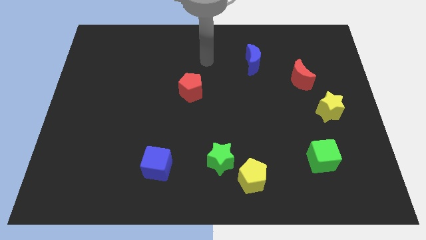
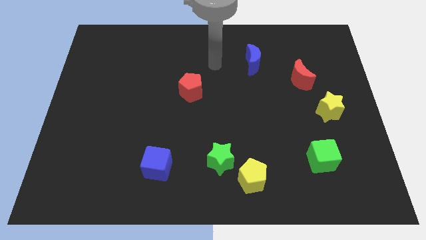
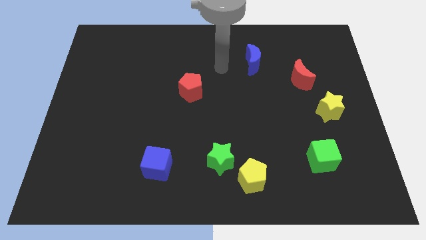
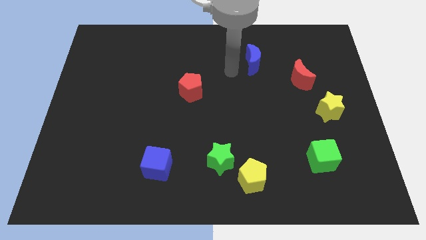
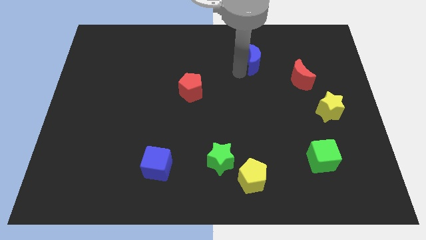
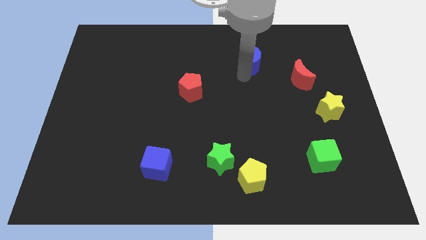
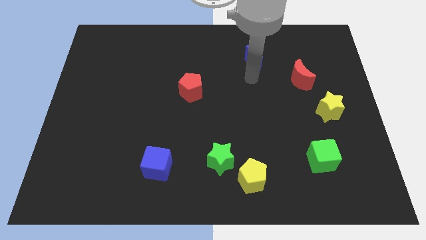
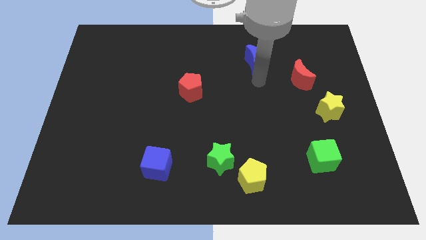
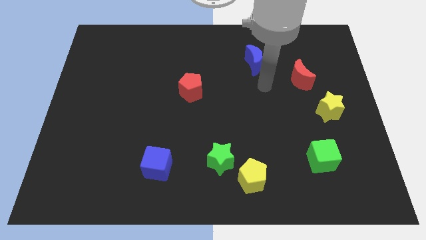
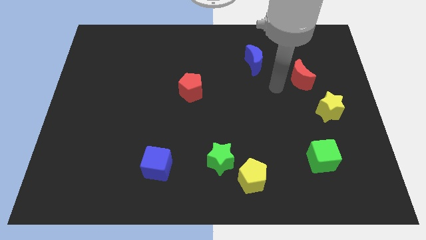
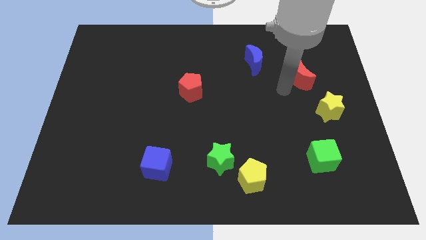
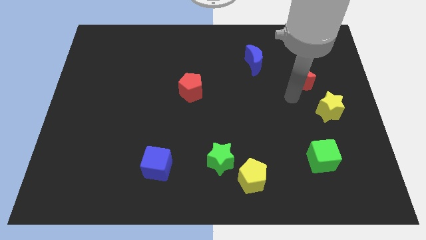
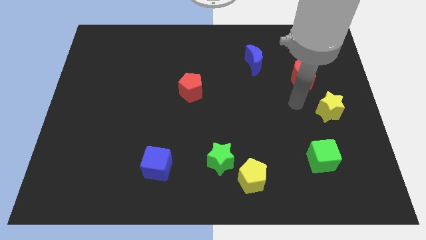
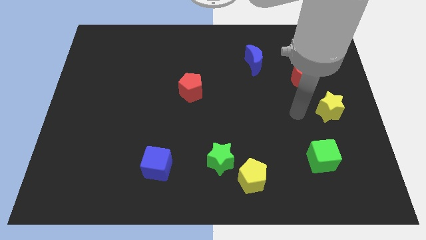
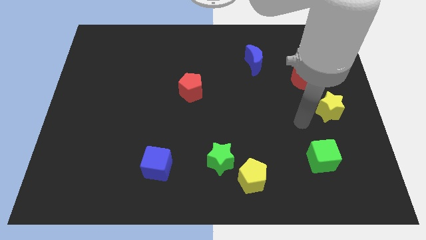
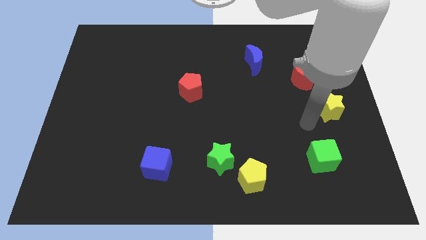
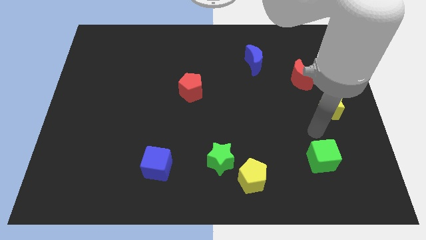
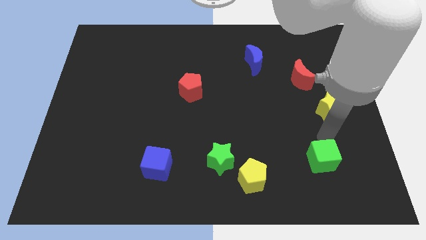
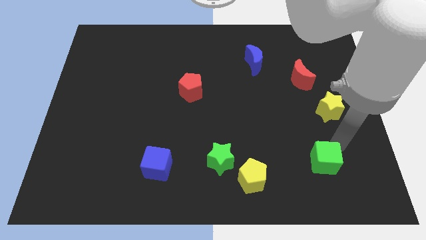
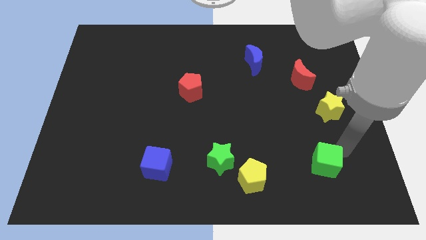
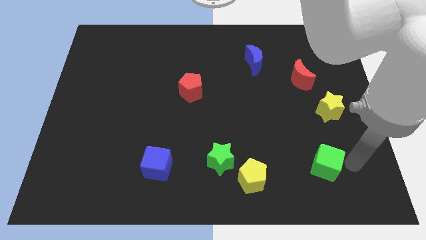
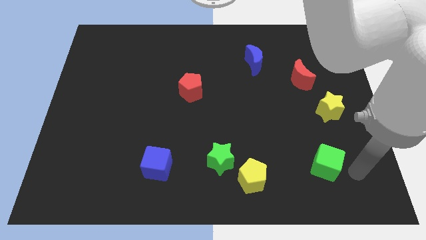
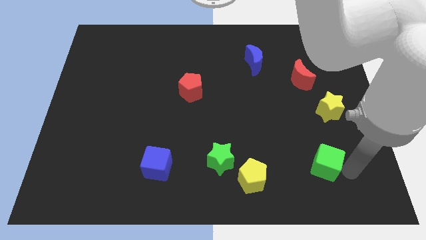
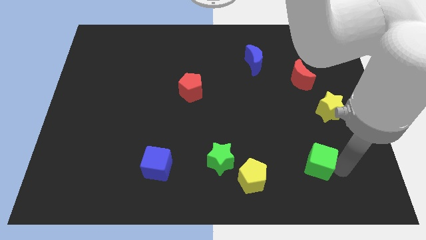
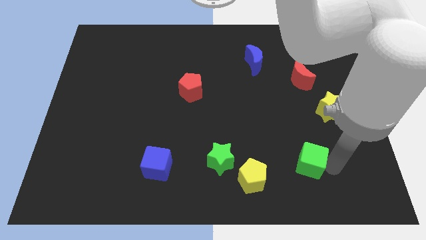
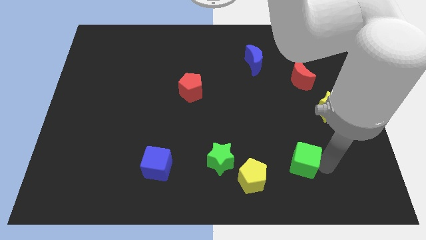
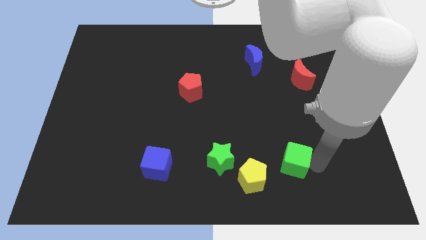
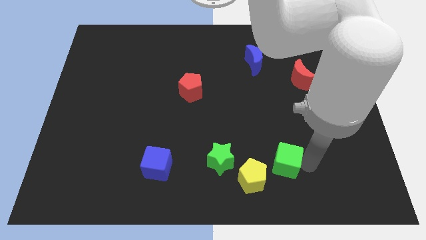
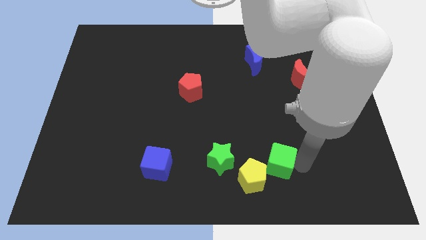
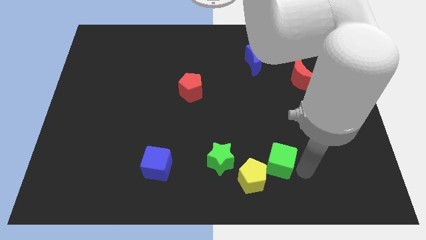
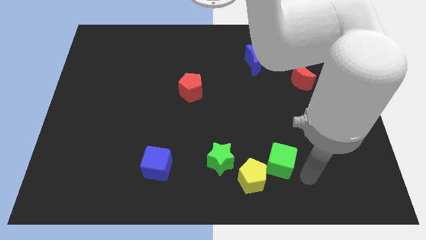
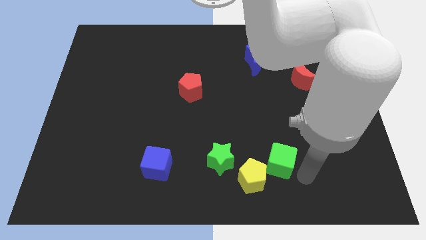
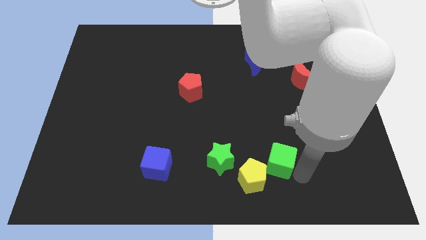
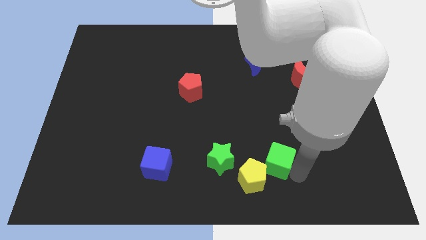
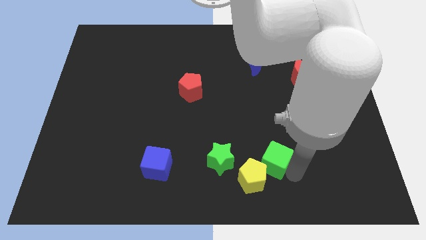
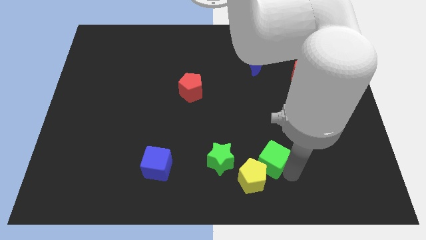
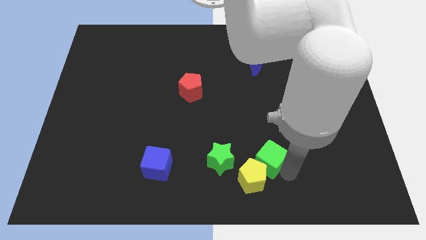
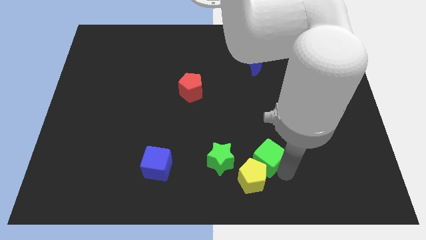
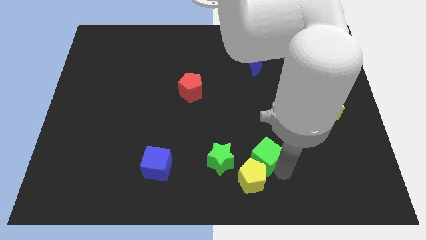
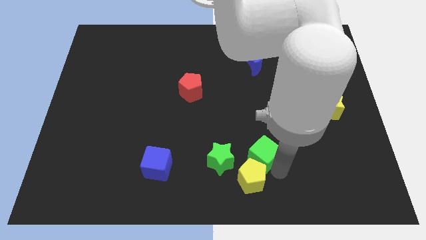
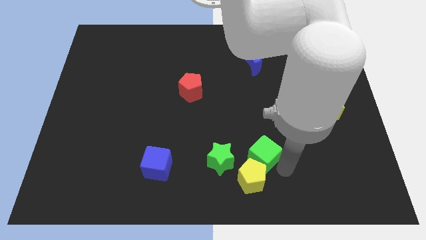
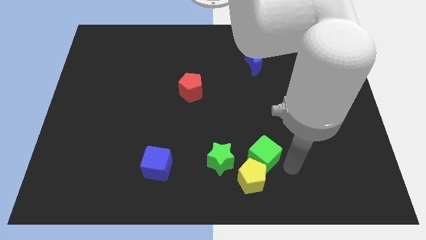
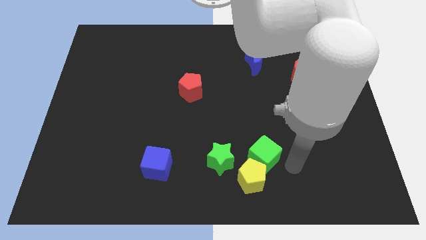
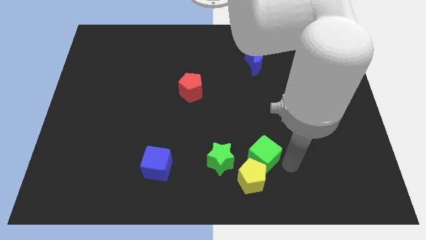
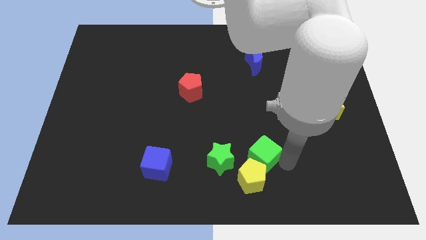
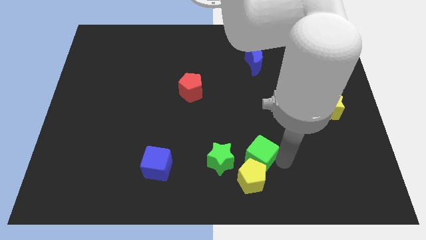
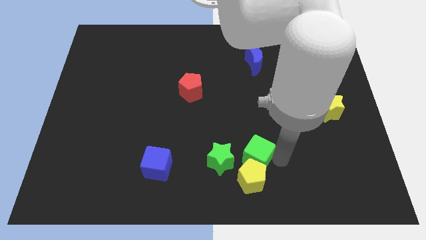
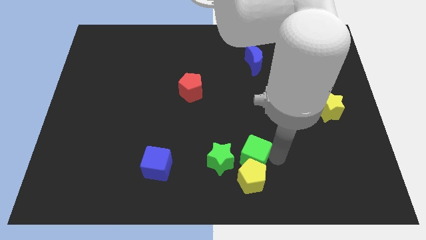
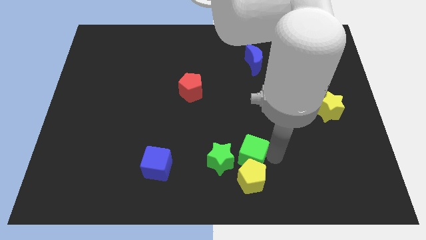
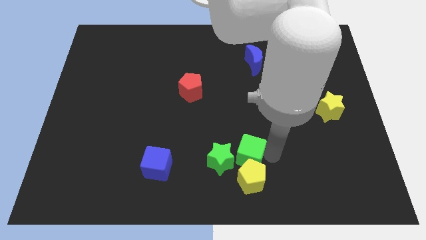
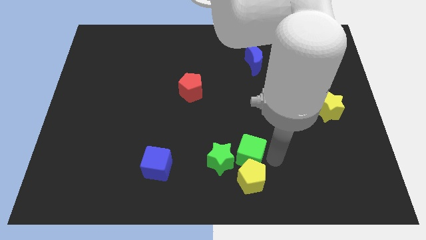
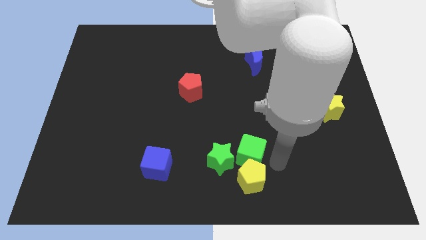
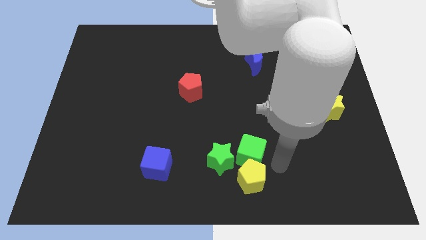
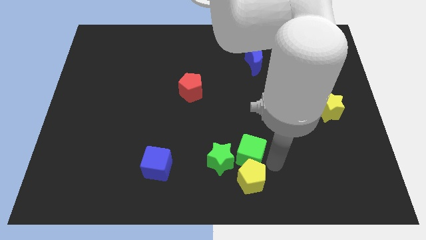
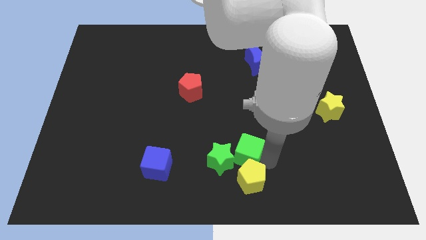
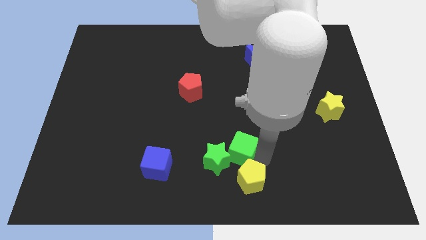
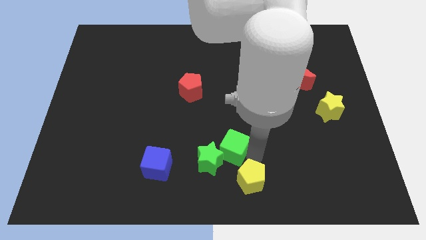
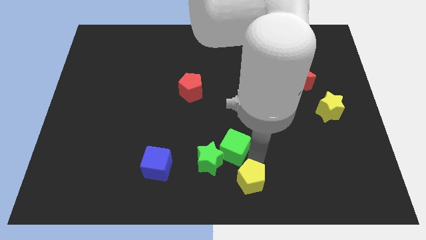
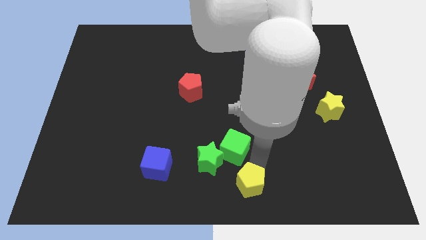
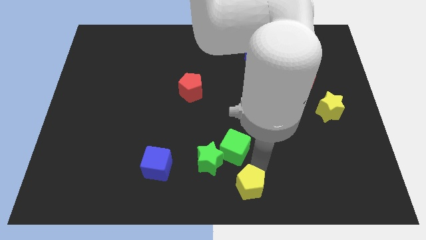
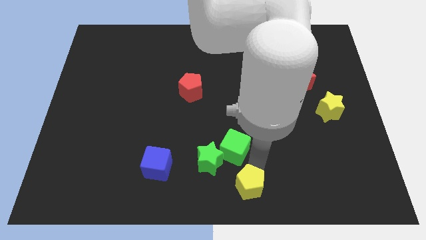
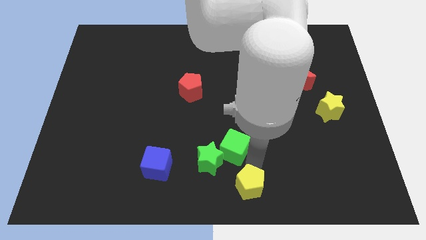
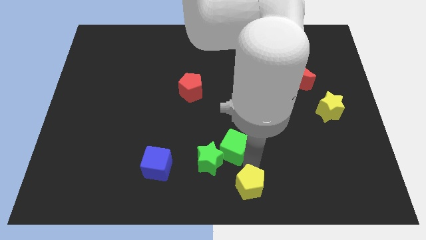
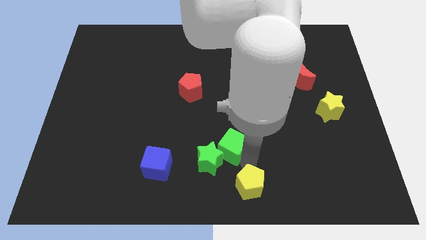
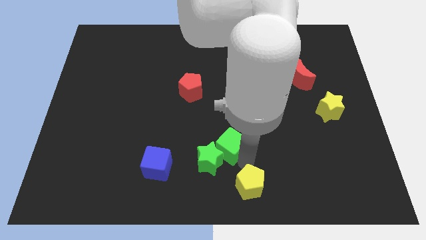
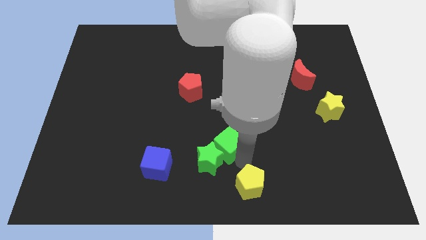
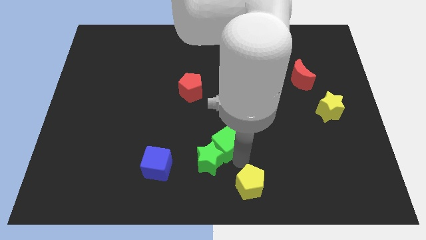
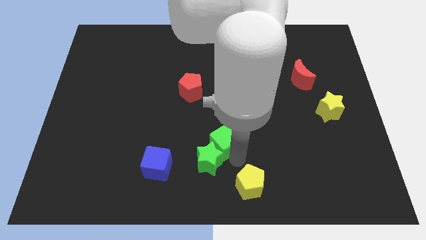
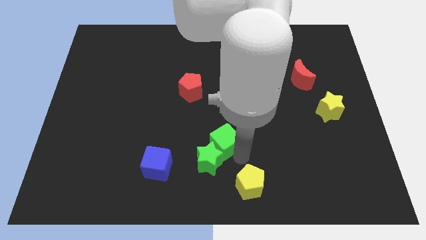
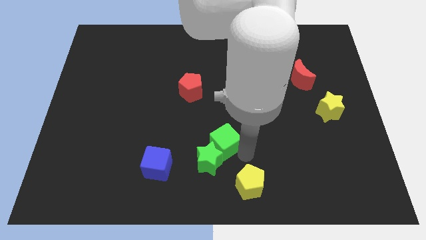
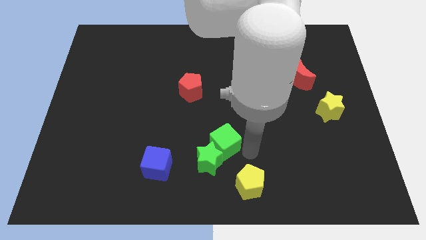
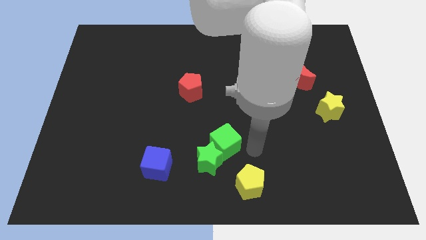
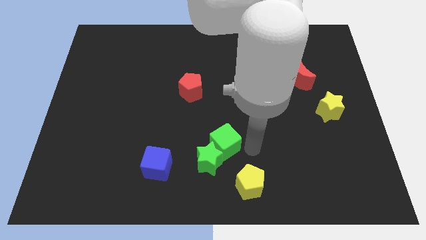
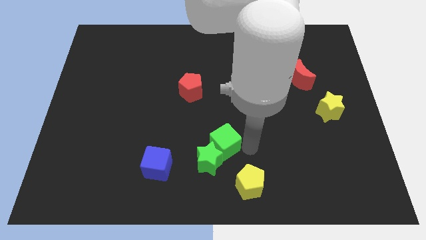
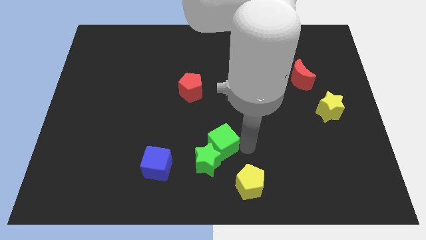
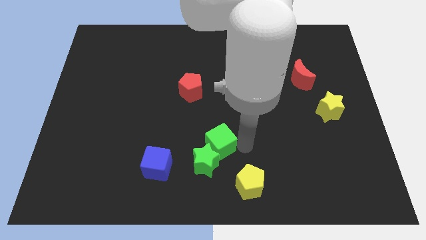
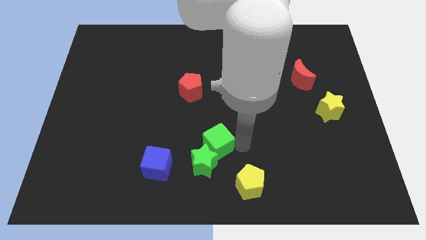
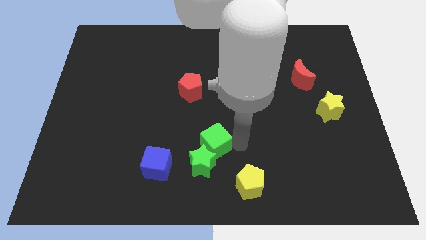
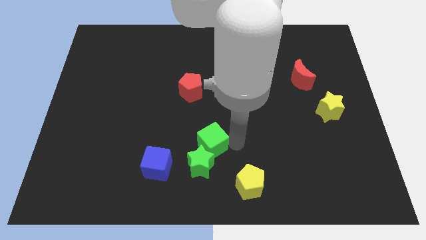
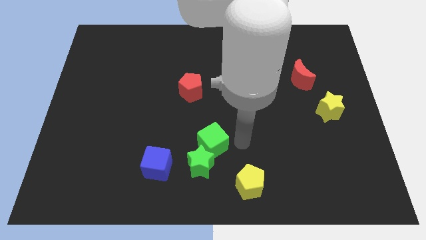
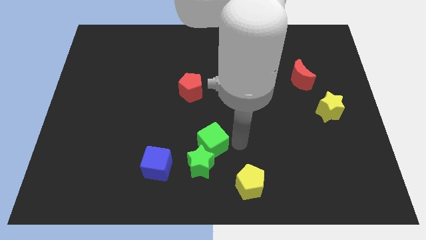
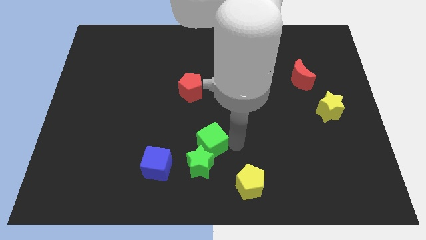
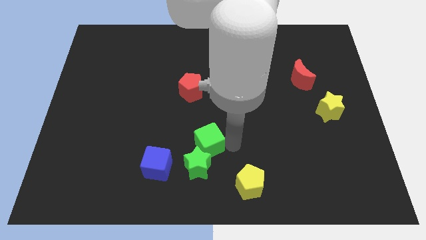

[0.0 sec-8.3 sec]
move the green cube to the top right of the blue cube
